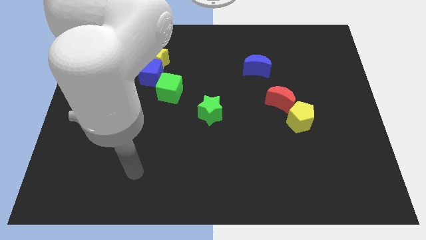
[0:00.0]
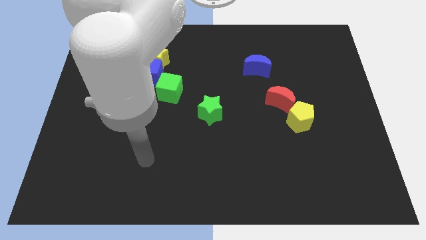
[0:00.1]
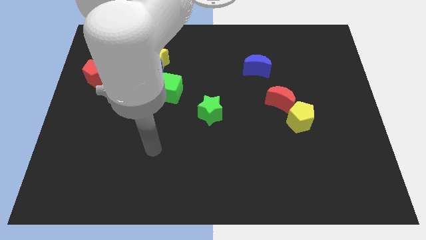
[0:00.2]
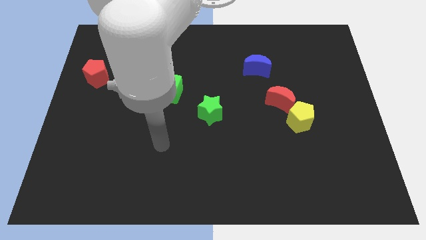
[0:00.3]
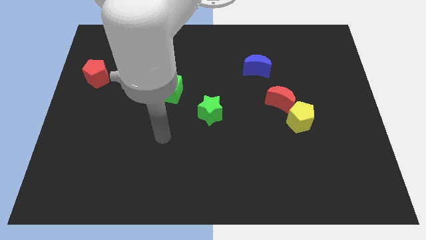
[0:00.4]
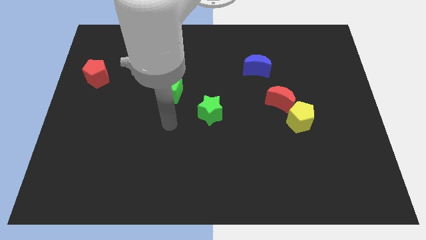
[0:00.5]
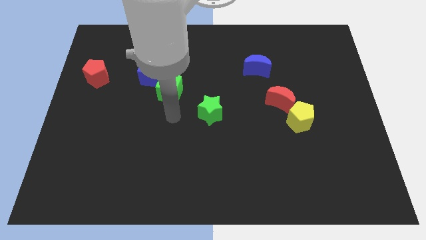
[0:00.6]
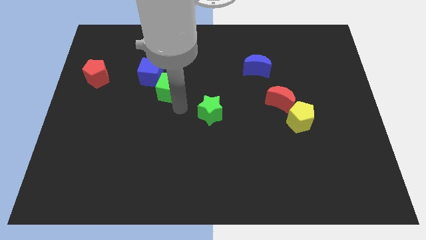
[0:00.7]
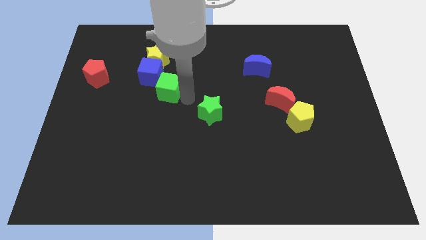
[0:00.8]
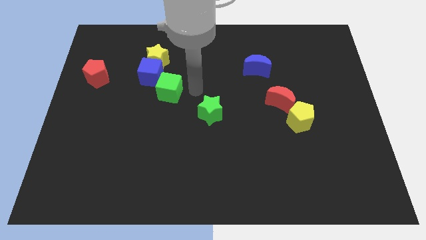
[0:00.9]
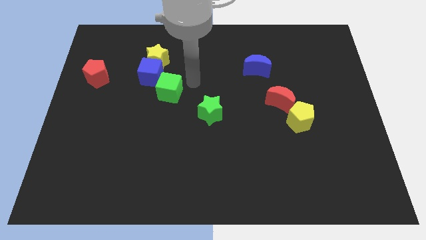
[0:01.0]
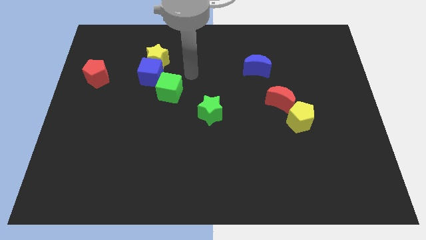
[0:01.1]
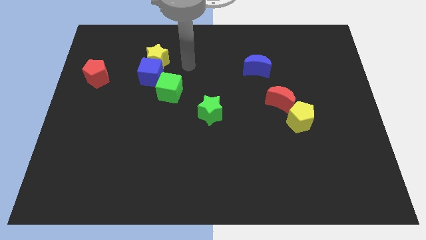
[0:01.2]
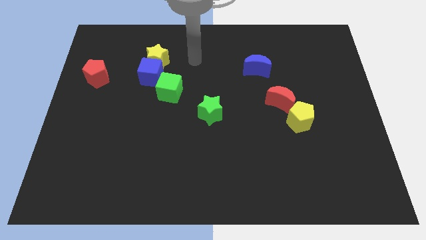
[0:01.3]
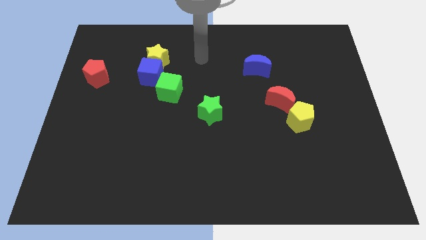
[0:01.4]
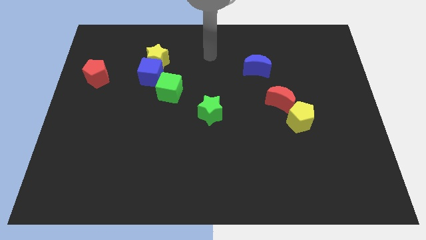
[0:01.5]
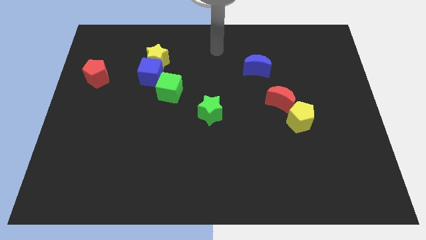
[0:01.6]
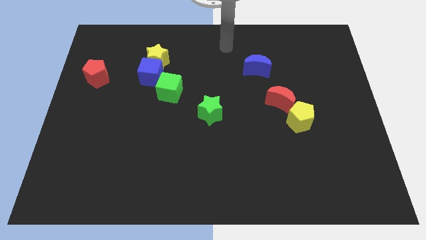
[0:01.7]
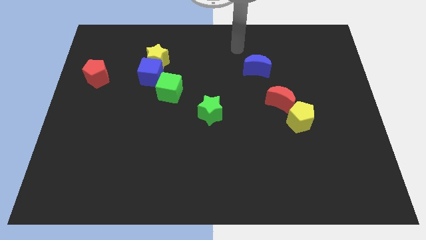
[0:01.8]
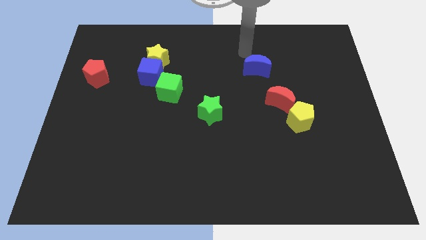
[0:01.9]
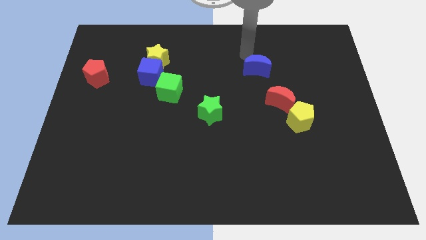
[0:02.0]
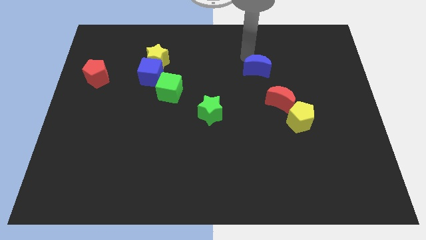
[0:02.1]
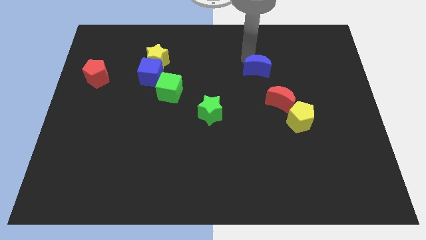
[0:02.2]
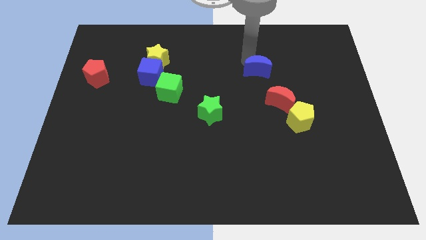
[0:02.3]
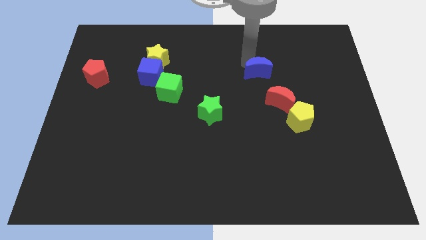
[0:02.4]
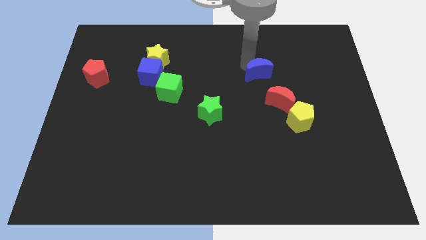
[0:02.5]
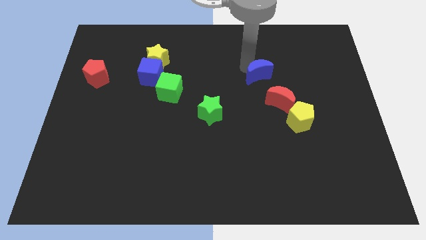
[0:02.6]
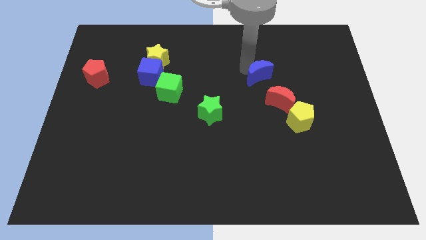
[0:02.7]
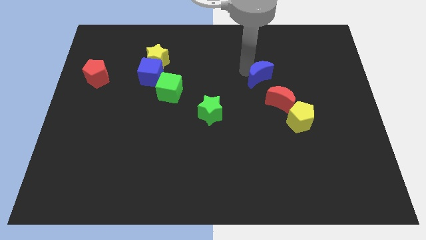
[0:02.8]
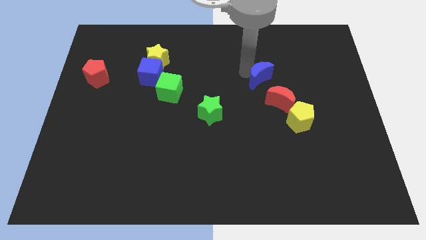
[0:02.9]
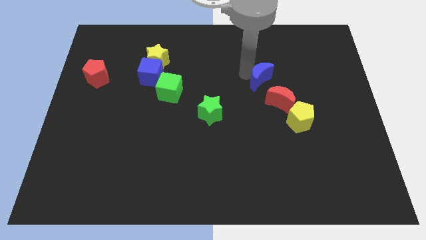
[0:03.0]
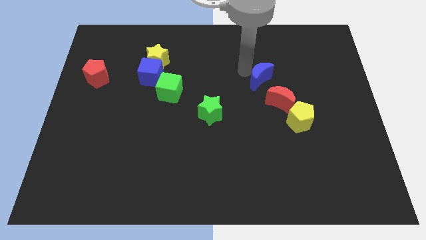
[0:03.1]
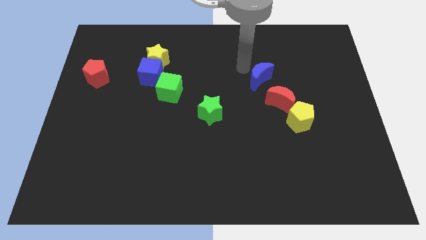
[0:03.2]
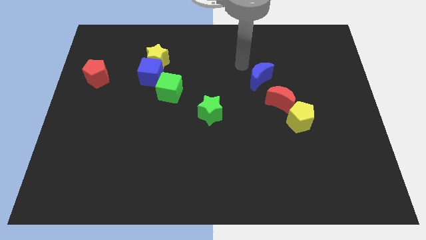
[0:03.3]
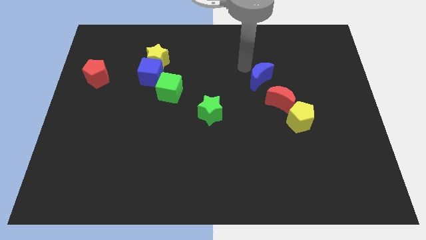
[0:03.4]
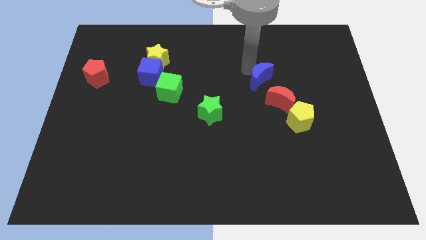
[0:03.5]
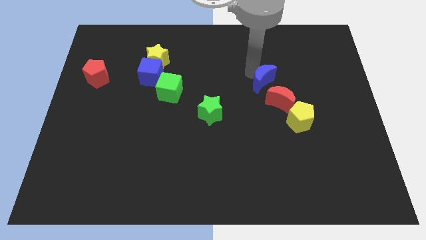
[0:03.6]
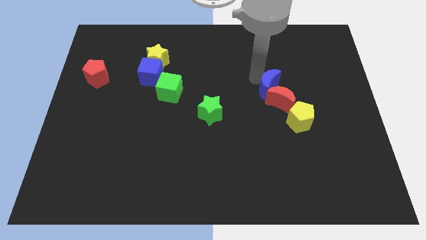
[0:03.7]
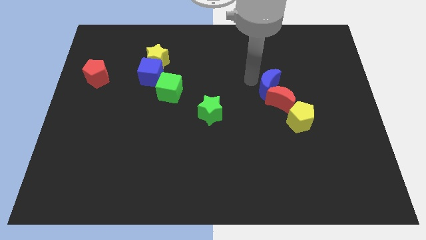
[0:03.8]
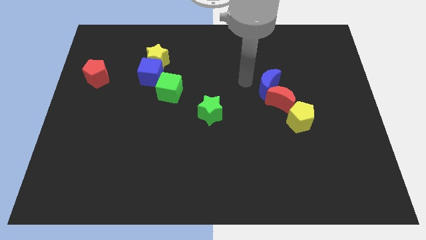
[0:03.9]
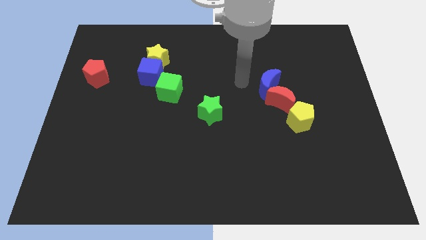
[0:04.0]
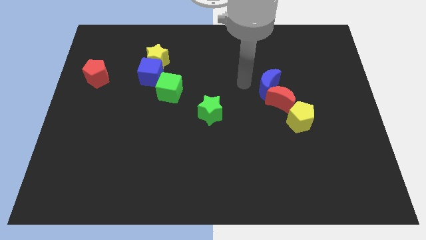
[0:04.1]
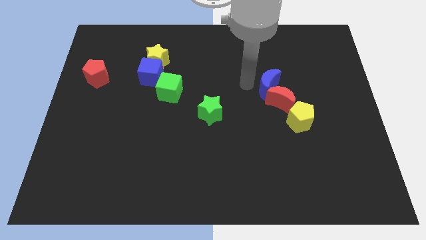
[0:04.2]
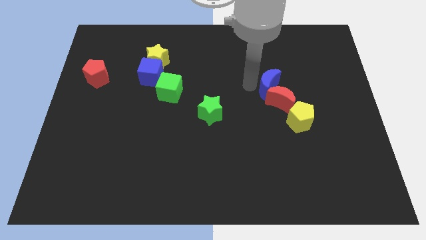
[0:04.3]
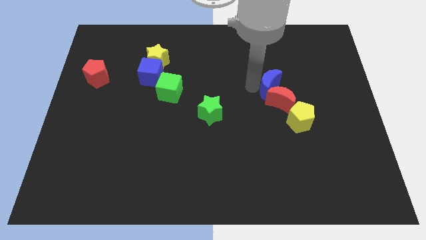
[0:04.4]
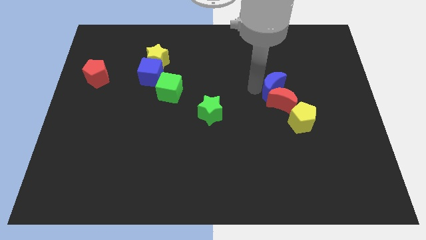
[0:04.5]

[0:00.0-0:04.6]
slide the blue moon a little bit diagonally down and right

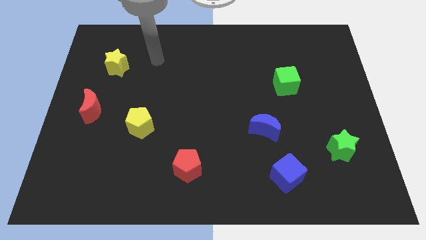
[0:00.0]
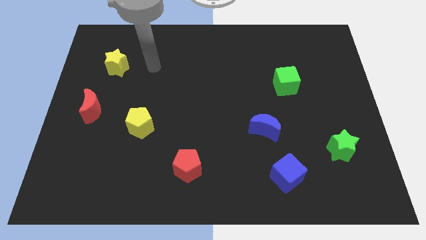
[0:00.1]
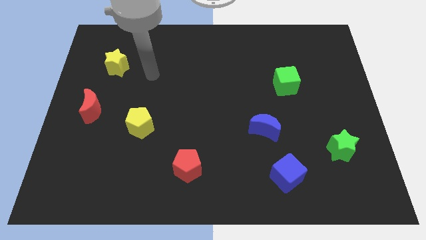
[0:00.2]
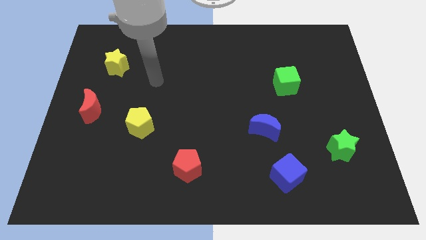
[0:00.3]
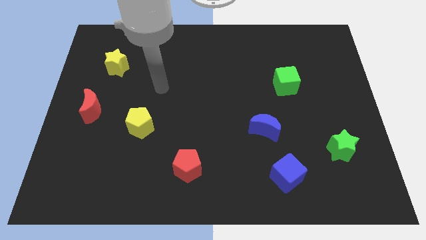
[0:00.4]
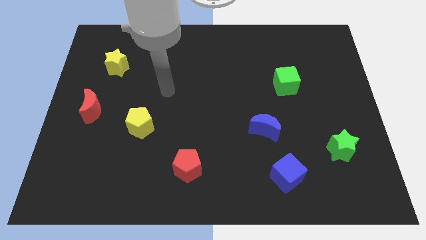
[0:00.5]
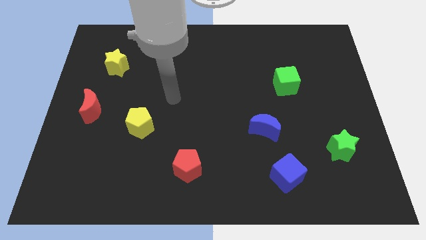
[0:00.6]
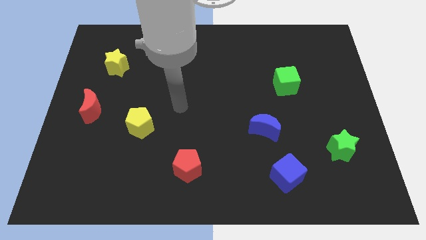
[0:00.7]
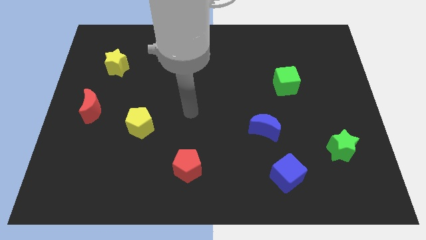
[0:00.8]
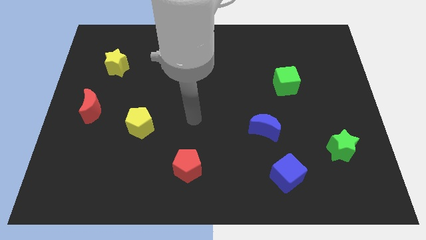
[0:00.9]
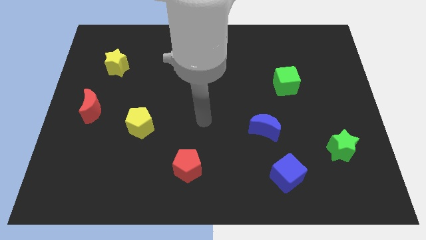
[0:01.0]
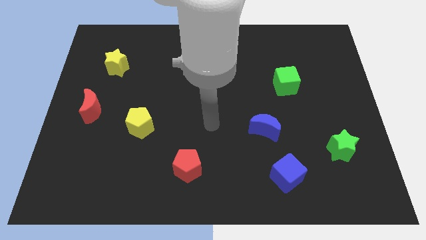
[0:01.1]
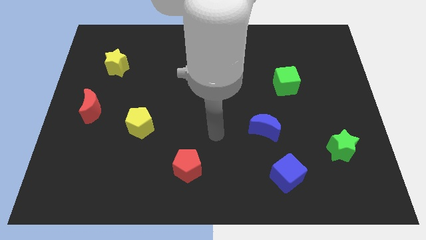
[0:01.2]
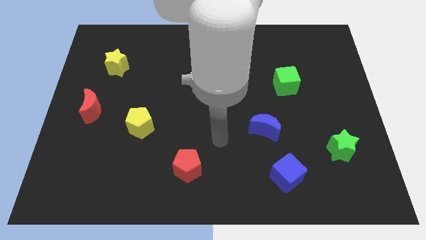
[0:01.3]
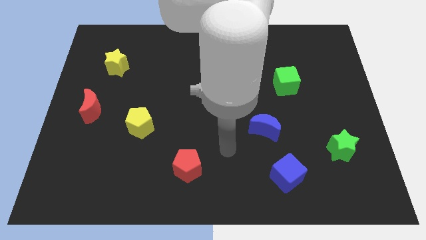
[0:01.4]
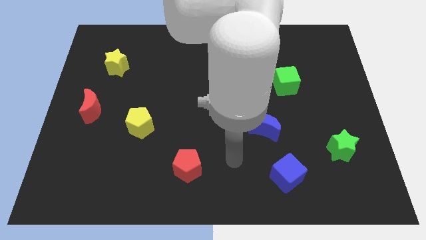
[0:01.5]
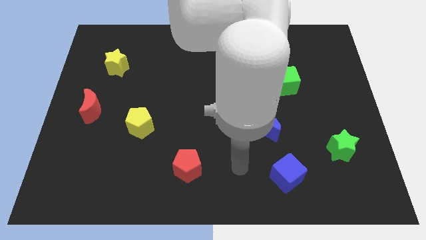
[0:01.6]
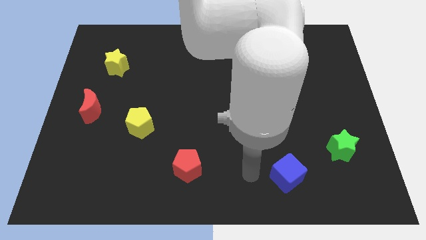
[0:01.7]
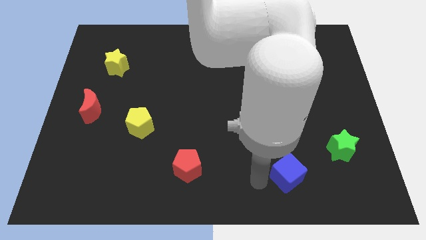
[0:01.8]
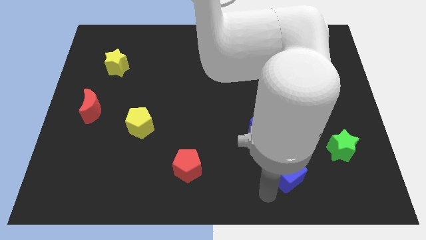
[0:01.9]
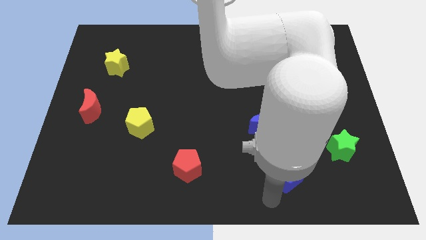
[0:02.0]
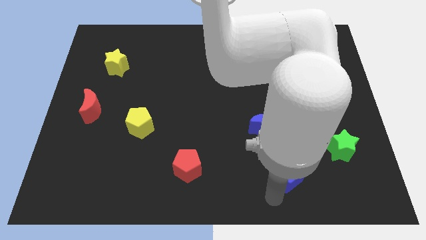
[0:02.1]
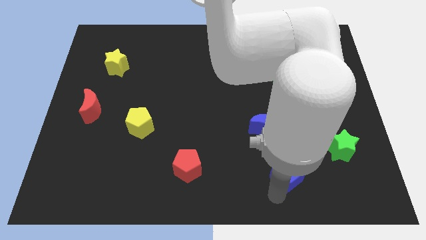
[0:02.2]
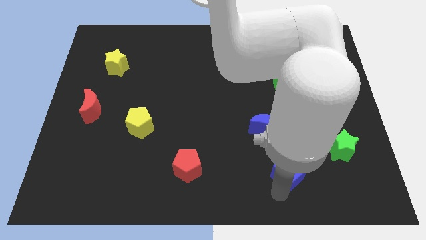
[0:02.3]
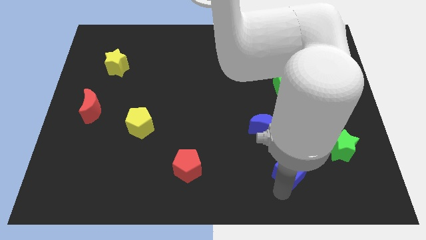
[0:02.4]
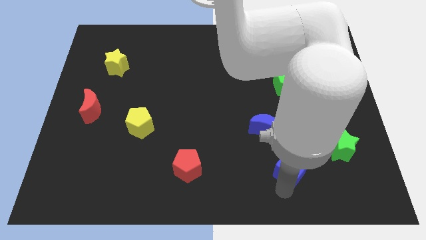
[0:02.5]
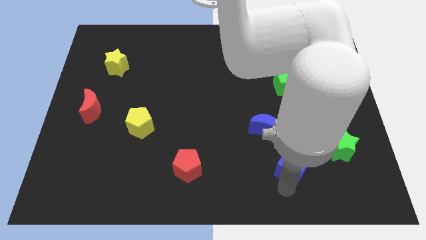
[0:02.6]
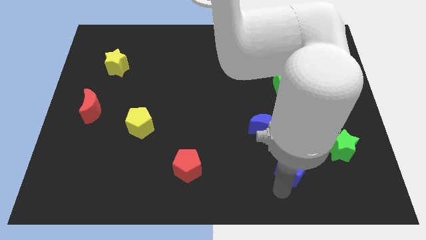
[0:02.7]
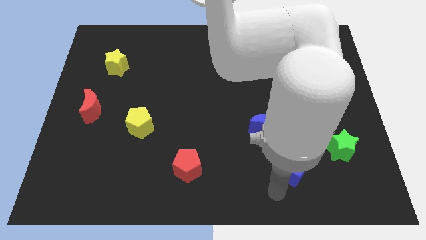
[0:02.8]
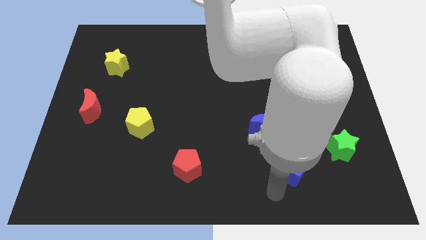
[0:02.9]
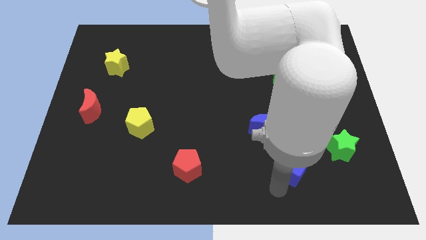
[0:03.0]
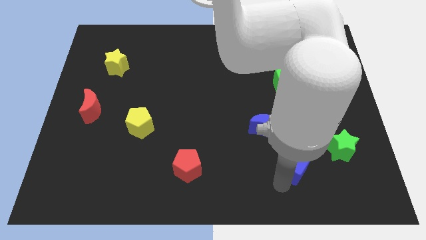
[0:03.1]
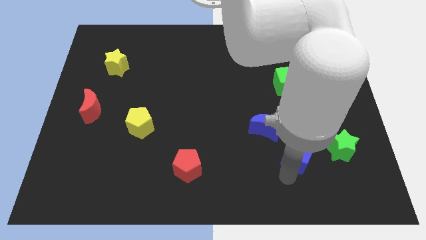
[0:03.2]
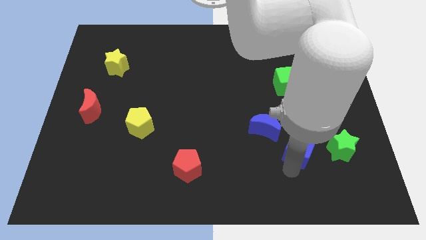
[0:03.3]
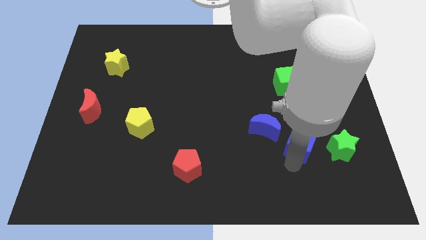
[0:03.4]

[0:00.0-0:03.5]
slide the blue cube a little bit upwards and right diagonally
